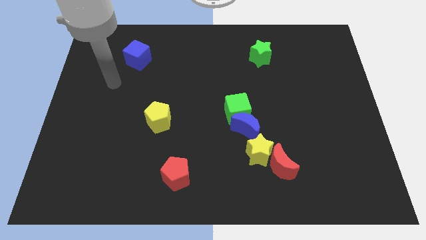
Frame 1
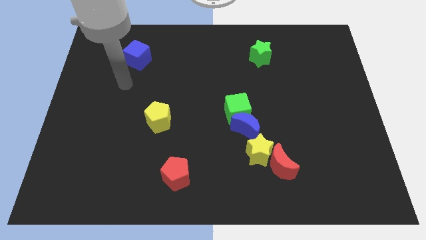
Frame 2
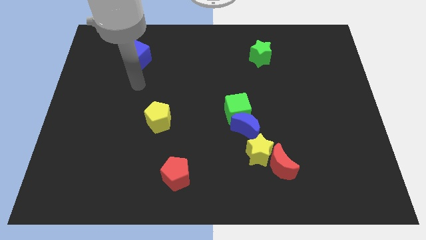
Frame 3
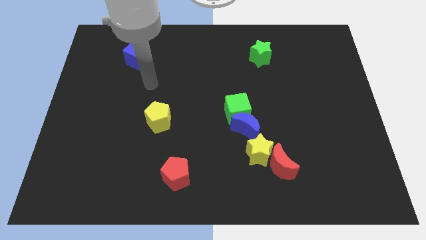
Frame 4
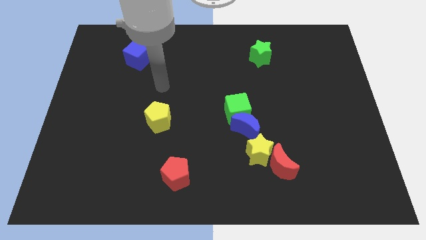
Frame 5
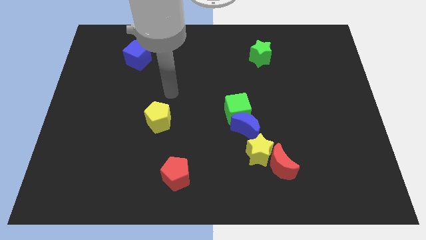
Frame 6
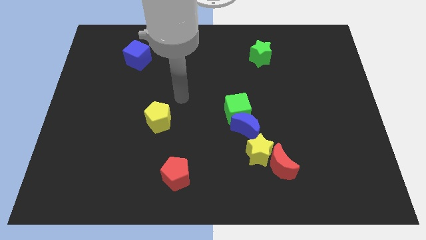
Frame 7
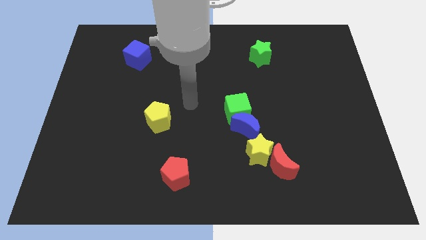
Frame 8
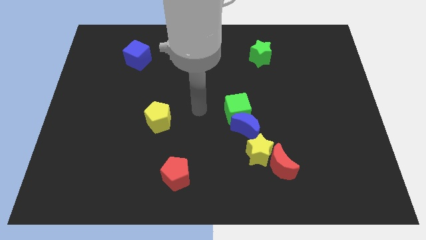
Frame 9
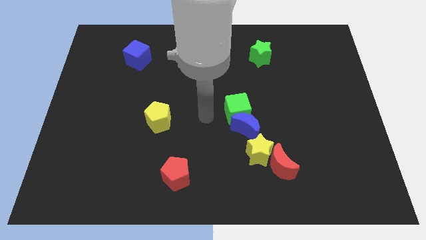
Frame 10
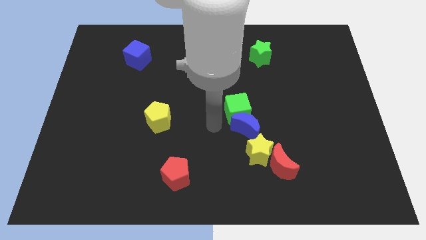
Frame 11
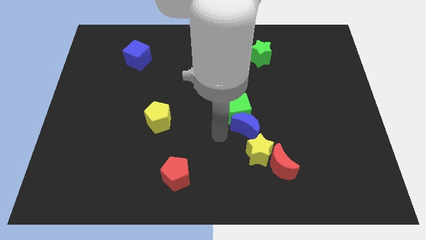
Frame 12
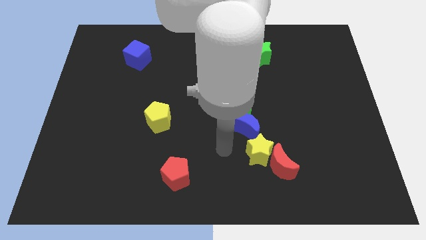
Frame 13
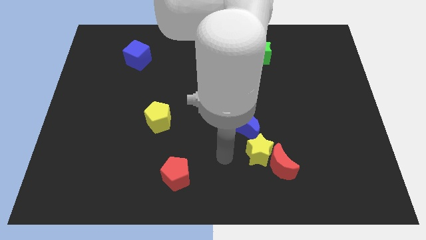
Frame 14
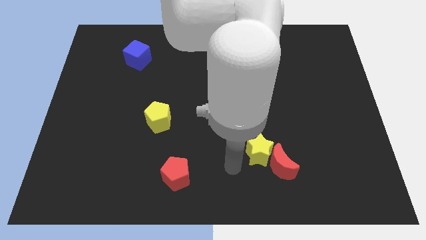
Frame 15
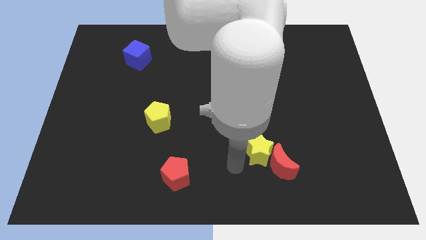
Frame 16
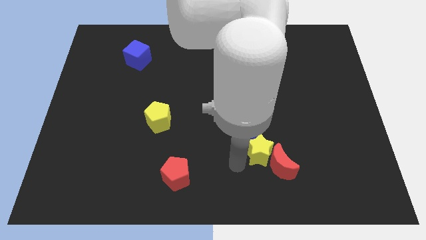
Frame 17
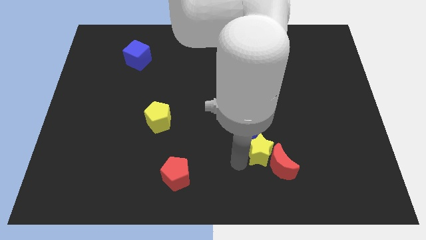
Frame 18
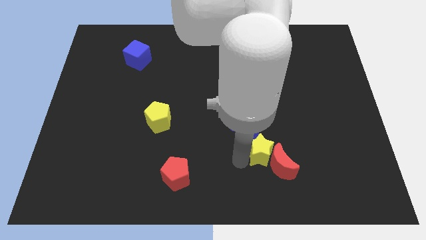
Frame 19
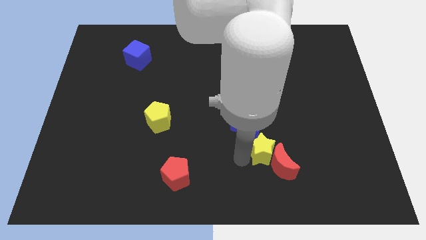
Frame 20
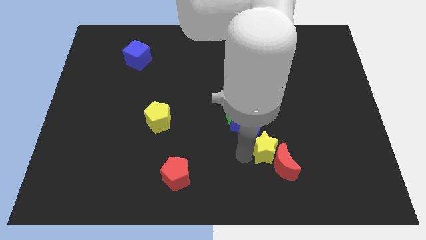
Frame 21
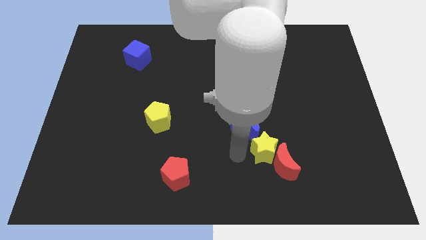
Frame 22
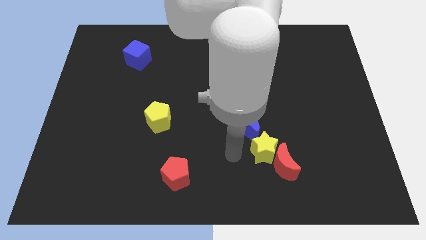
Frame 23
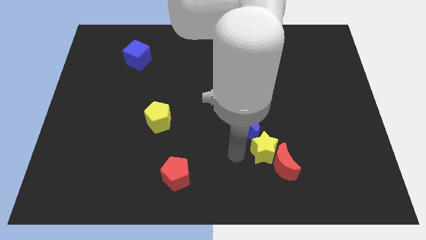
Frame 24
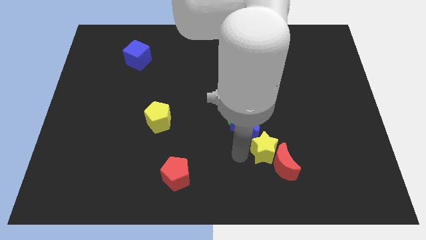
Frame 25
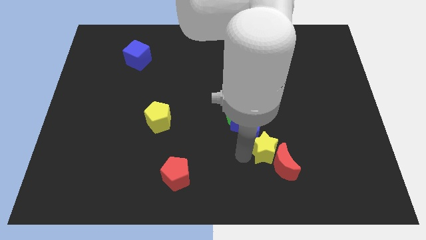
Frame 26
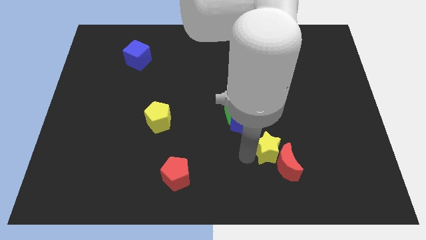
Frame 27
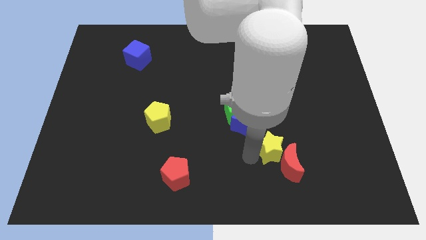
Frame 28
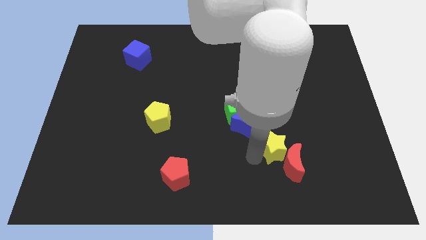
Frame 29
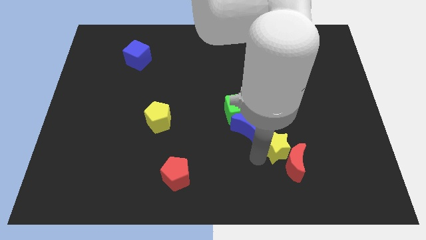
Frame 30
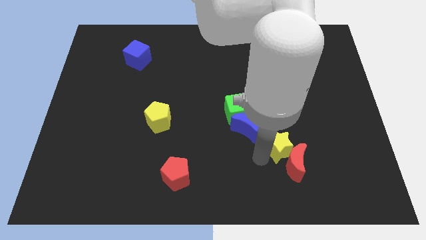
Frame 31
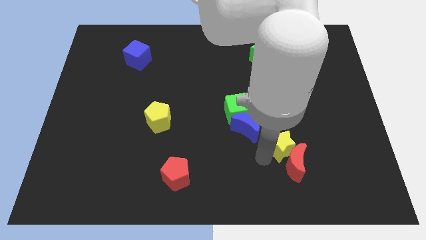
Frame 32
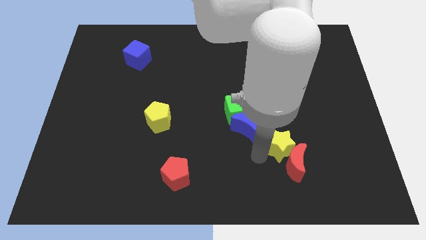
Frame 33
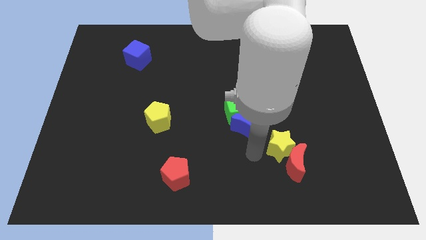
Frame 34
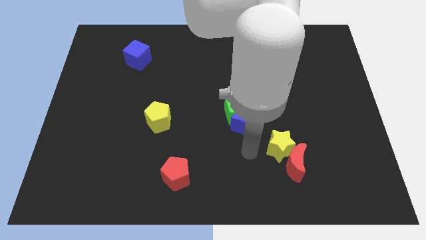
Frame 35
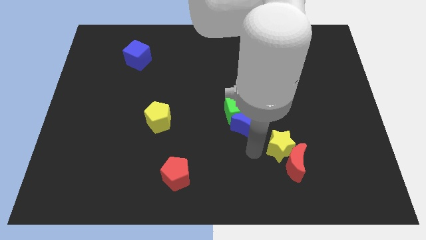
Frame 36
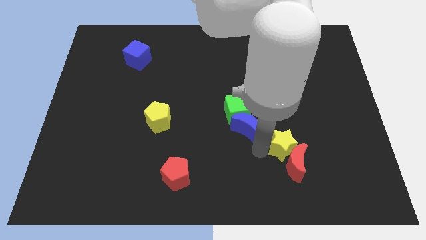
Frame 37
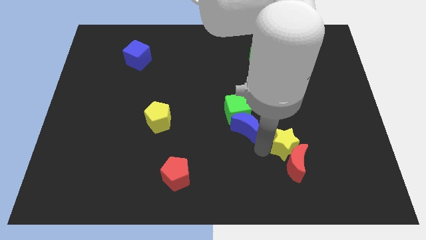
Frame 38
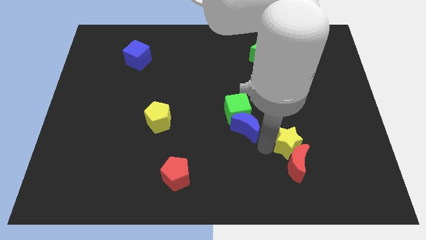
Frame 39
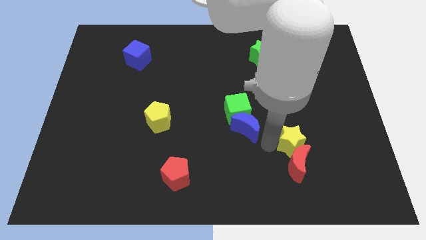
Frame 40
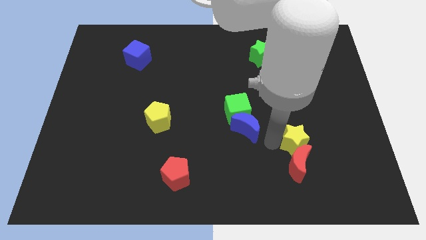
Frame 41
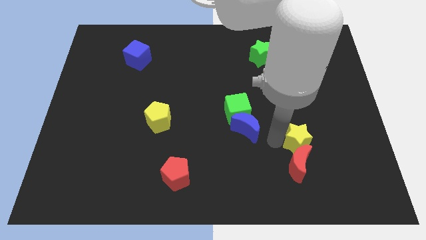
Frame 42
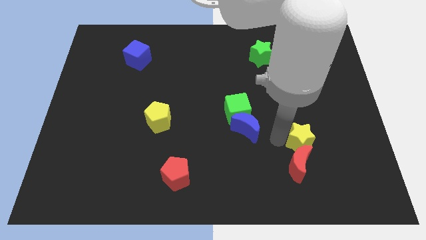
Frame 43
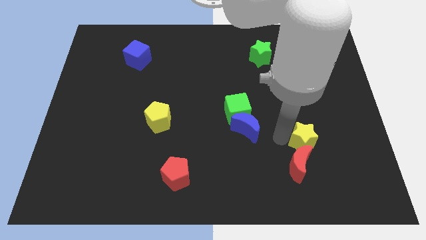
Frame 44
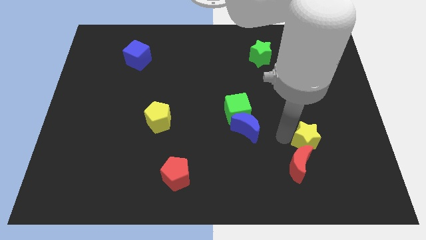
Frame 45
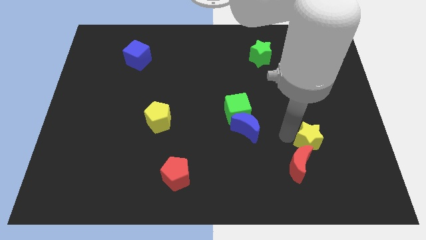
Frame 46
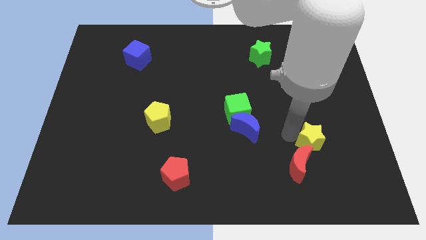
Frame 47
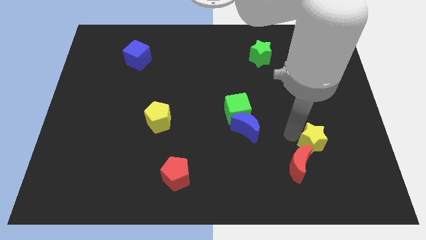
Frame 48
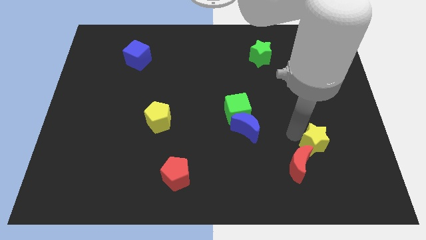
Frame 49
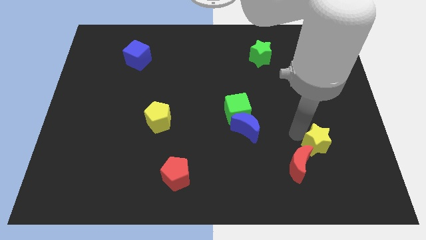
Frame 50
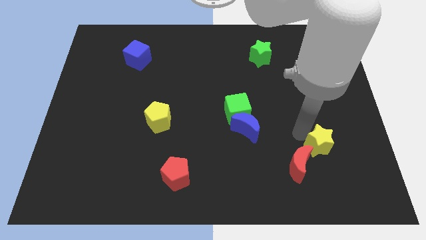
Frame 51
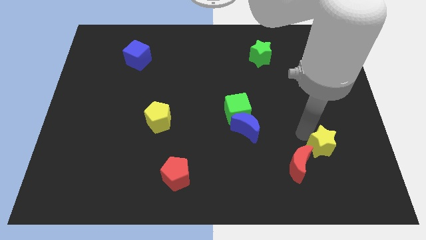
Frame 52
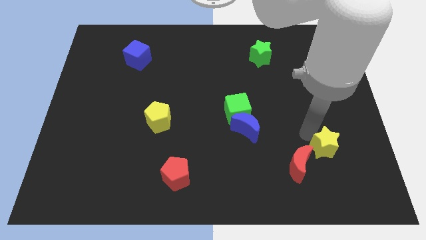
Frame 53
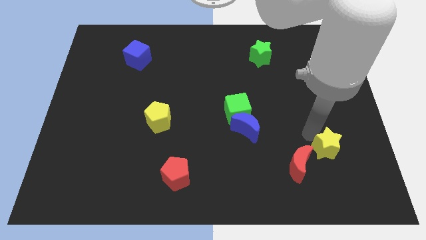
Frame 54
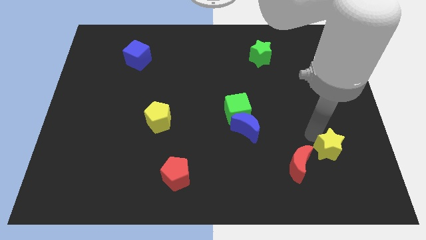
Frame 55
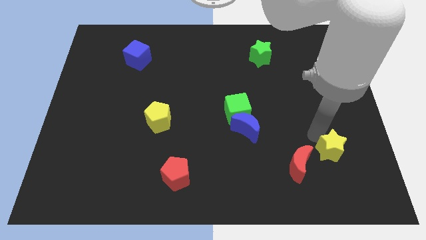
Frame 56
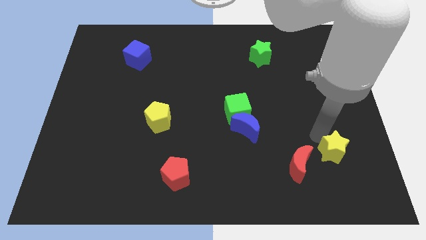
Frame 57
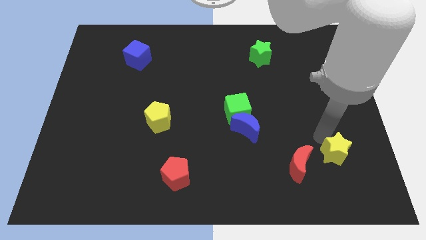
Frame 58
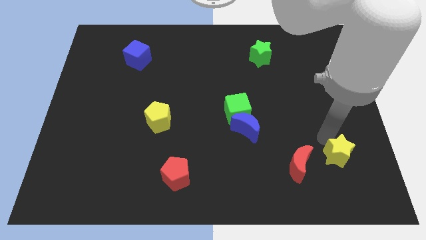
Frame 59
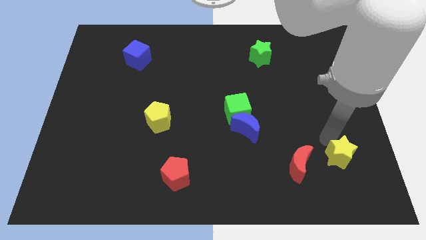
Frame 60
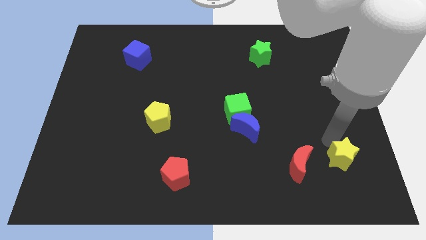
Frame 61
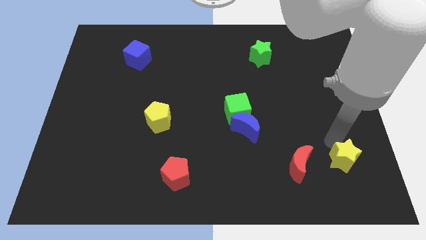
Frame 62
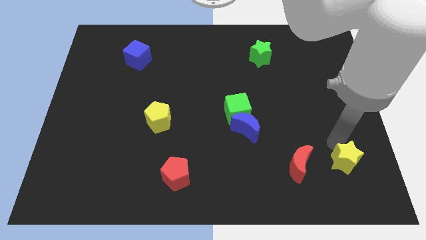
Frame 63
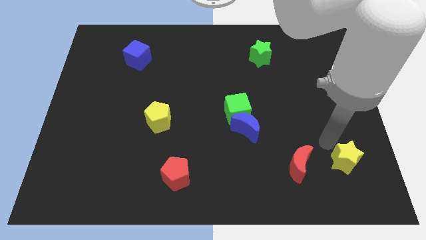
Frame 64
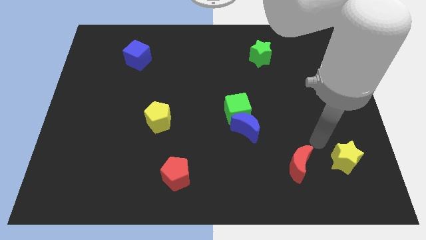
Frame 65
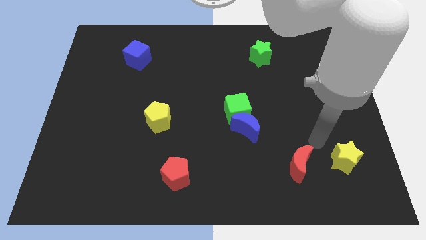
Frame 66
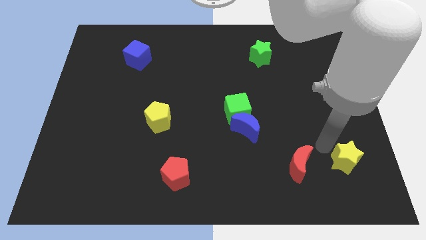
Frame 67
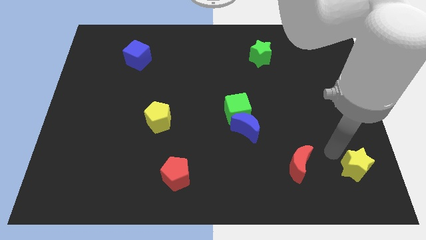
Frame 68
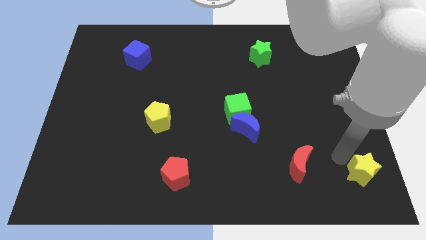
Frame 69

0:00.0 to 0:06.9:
slide the yellow star to the lower right corner
